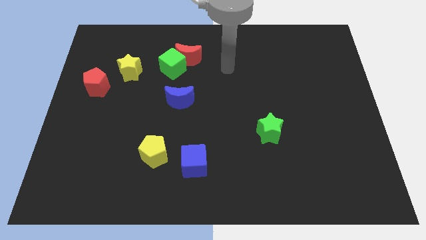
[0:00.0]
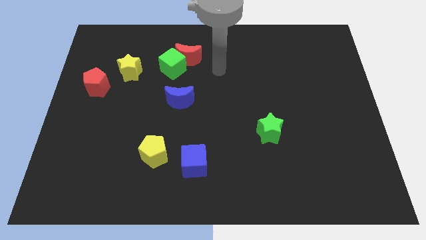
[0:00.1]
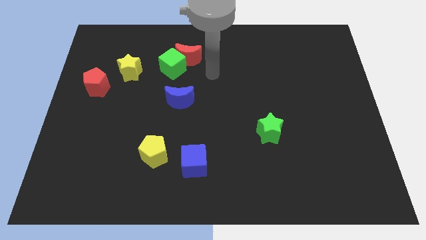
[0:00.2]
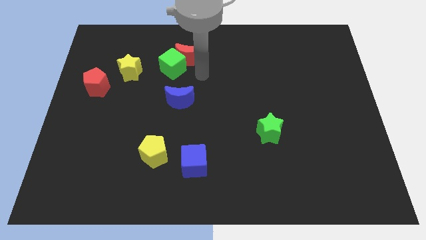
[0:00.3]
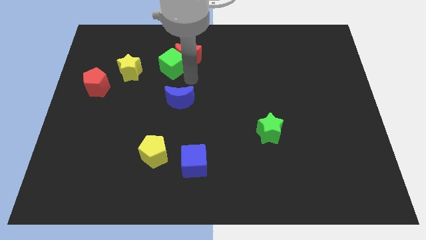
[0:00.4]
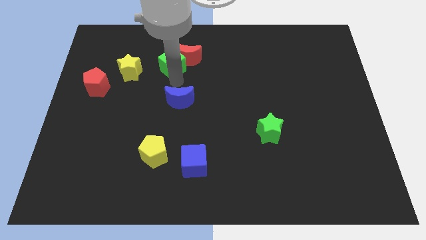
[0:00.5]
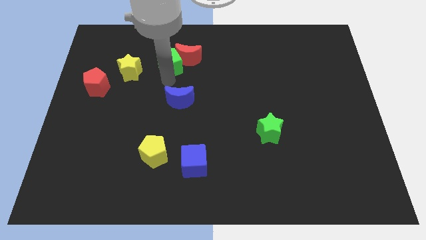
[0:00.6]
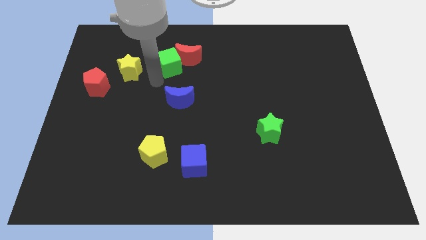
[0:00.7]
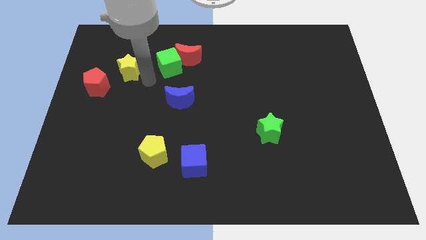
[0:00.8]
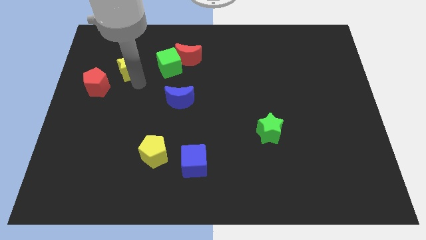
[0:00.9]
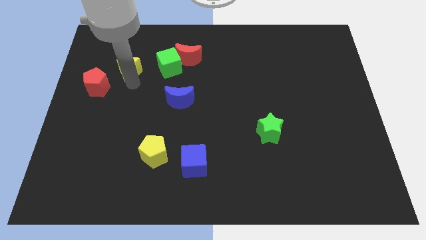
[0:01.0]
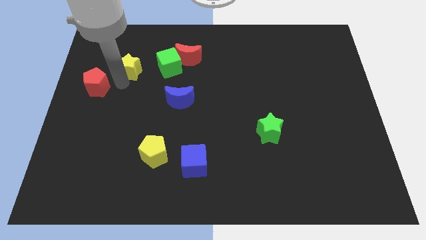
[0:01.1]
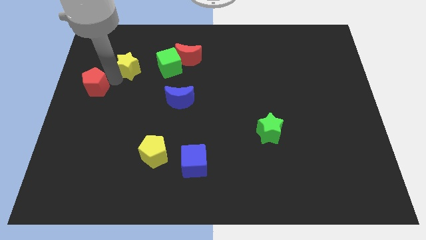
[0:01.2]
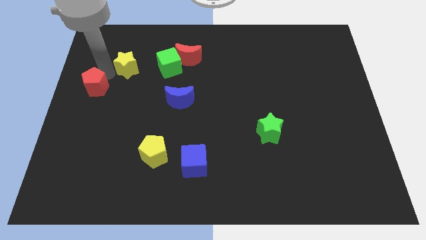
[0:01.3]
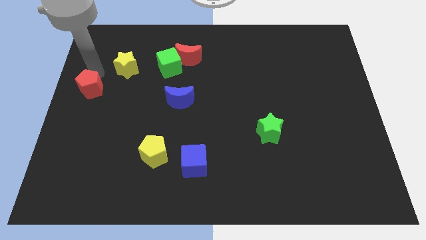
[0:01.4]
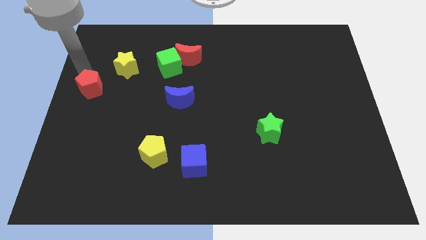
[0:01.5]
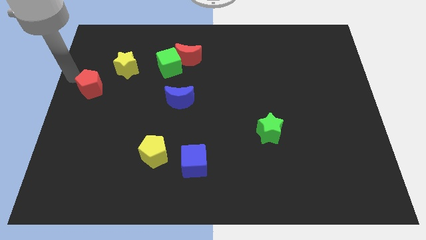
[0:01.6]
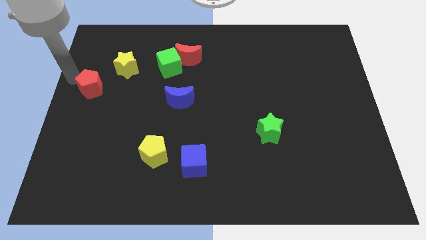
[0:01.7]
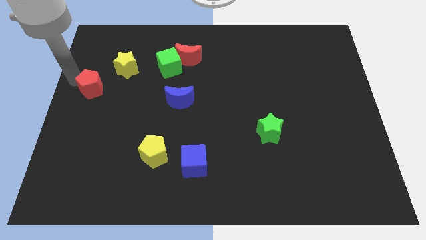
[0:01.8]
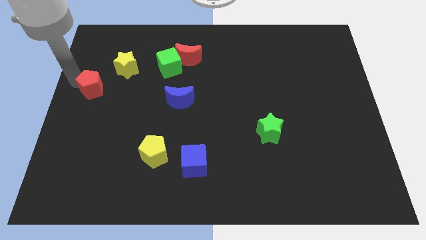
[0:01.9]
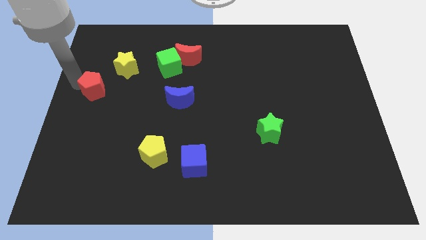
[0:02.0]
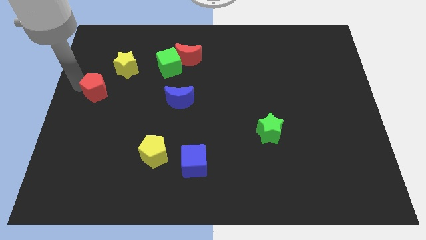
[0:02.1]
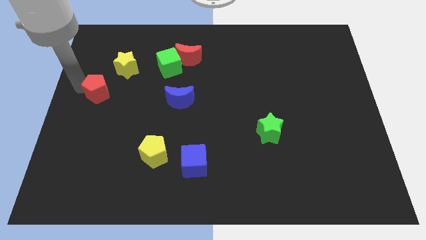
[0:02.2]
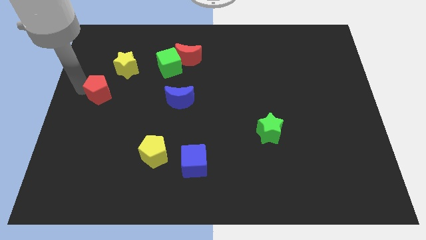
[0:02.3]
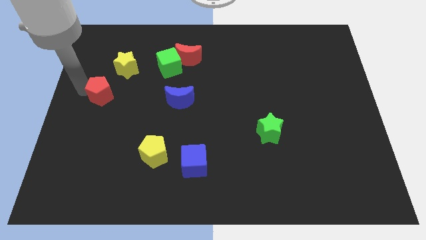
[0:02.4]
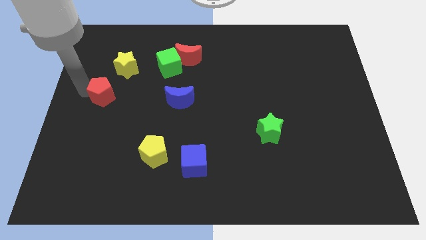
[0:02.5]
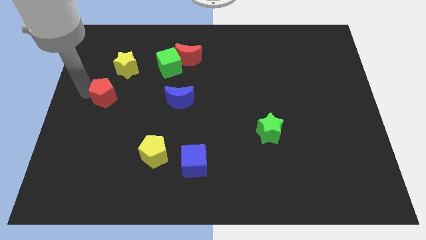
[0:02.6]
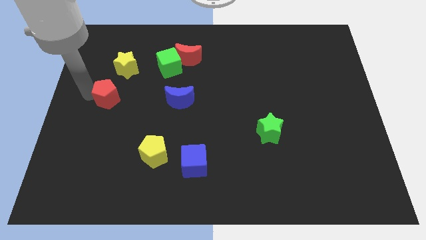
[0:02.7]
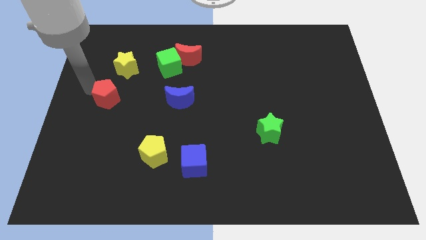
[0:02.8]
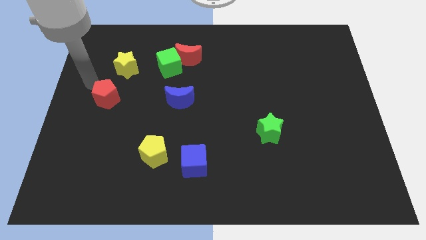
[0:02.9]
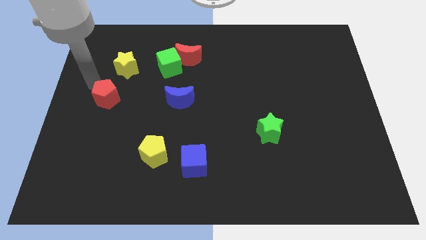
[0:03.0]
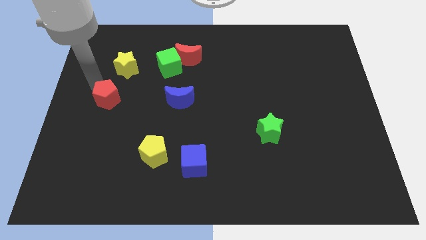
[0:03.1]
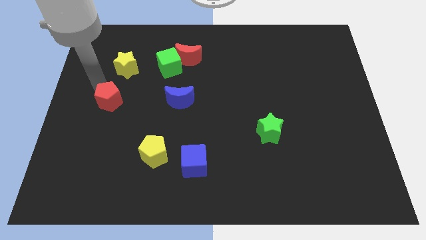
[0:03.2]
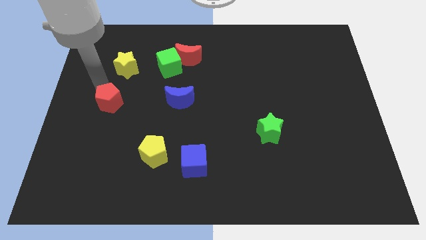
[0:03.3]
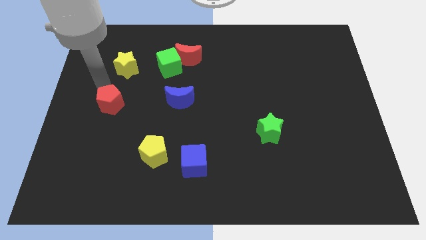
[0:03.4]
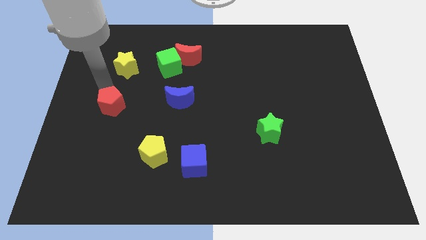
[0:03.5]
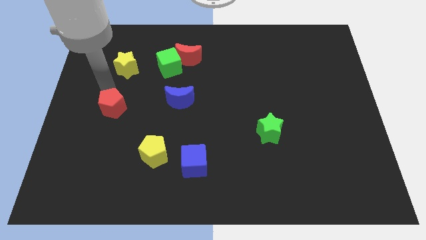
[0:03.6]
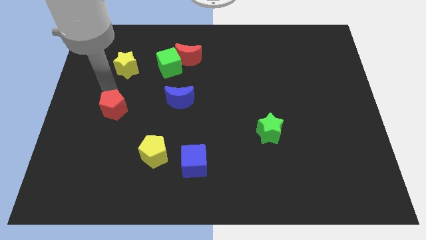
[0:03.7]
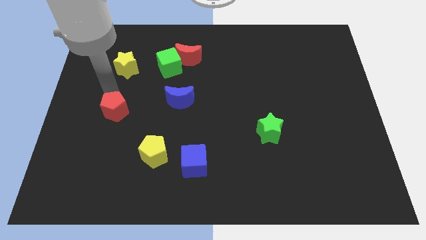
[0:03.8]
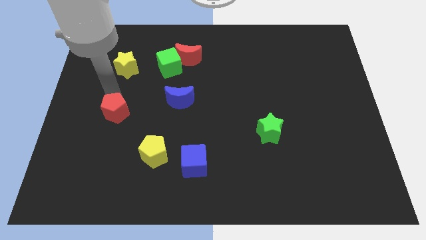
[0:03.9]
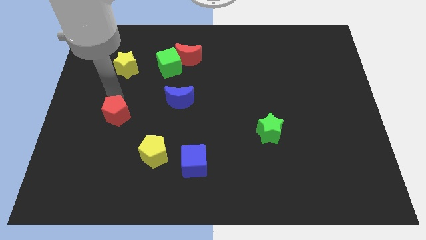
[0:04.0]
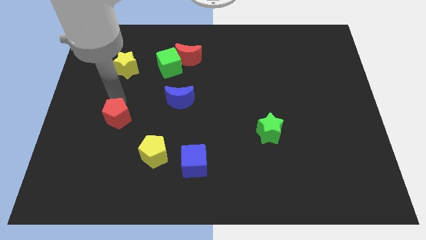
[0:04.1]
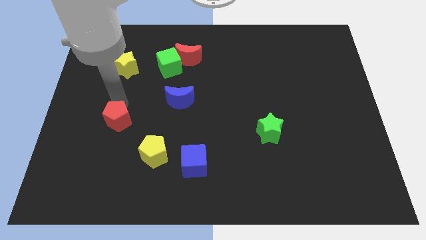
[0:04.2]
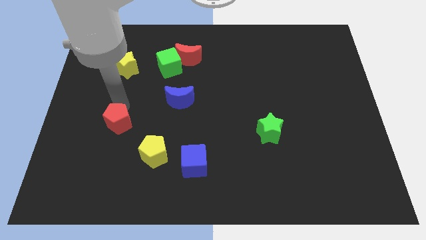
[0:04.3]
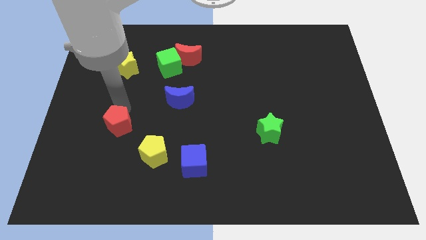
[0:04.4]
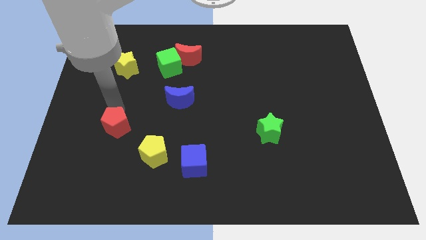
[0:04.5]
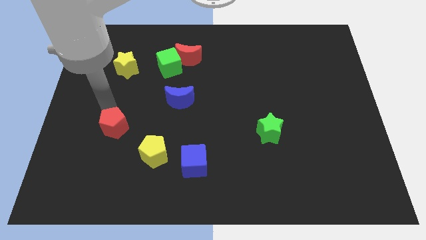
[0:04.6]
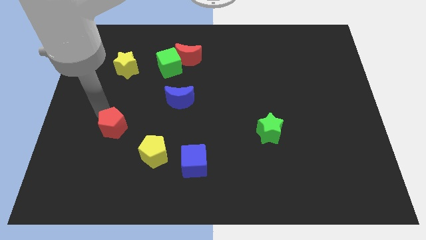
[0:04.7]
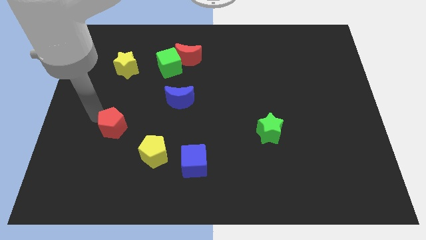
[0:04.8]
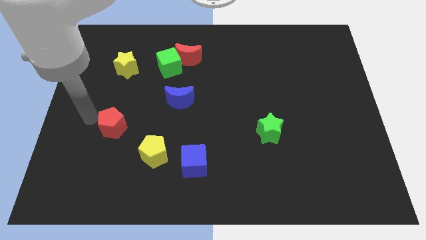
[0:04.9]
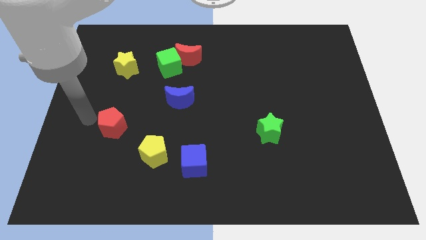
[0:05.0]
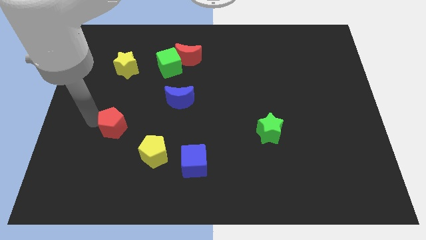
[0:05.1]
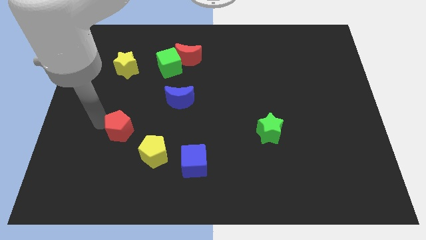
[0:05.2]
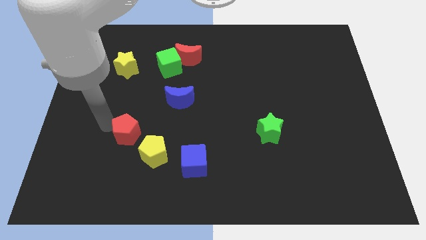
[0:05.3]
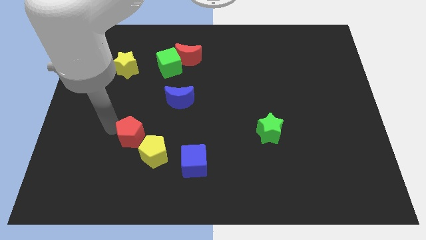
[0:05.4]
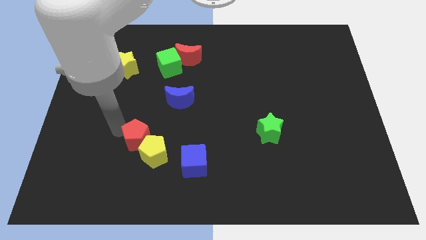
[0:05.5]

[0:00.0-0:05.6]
slide the red pentagon close to the yellow pentagon

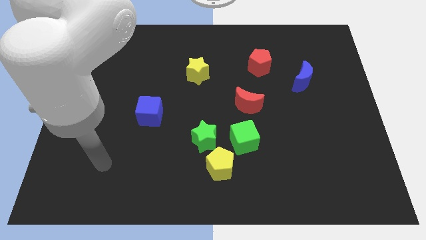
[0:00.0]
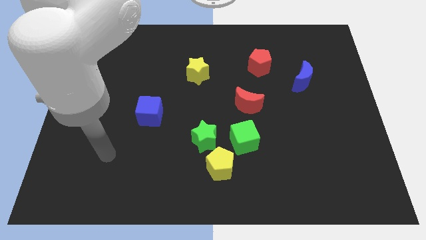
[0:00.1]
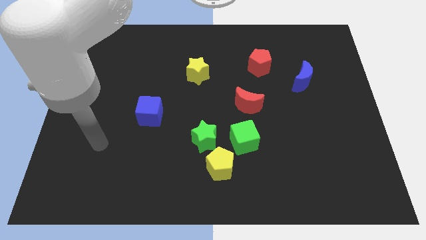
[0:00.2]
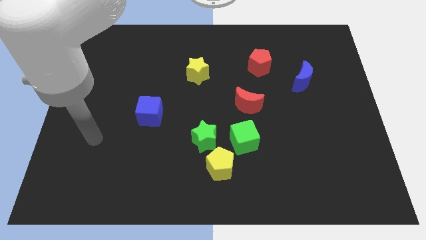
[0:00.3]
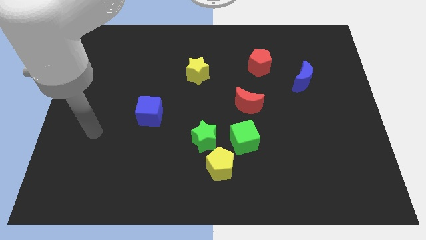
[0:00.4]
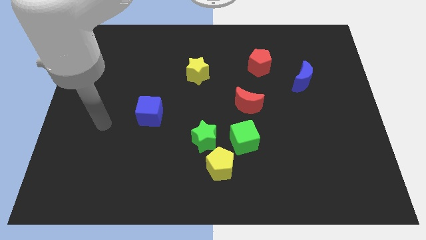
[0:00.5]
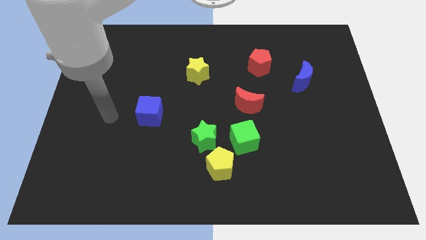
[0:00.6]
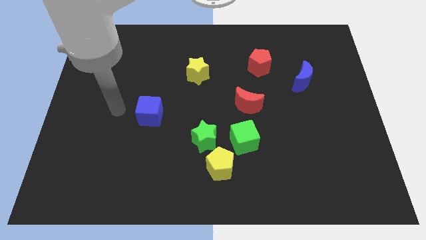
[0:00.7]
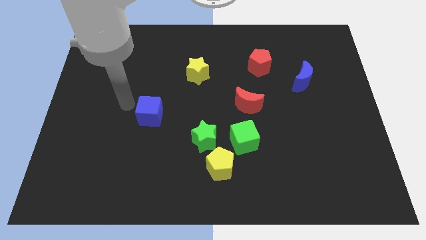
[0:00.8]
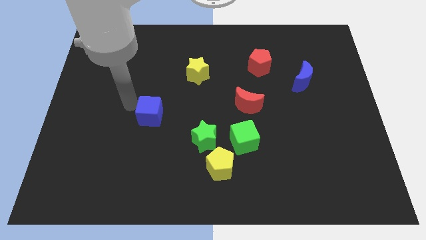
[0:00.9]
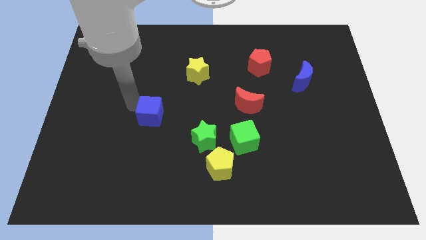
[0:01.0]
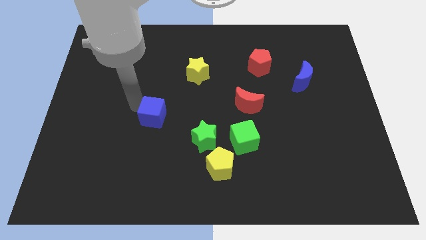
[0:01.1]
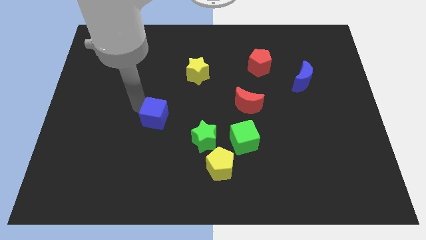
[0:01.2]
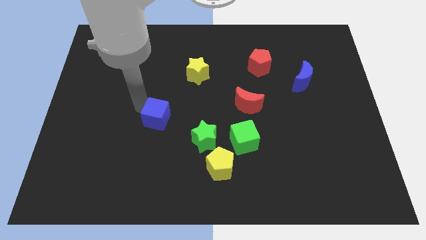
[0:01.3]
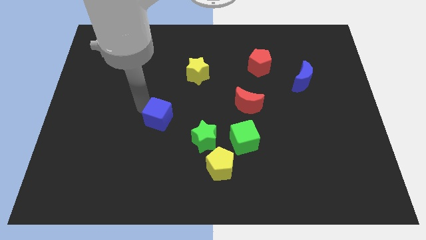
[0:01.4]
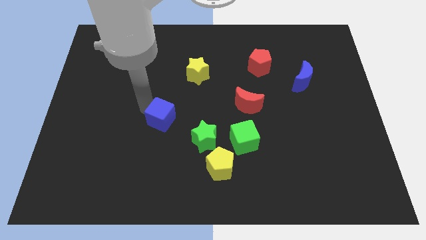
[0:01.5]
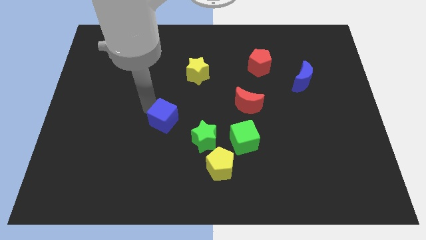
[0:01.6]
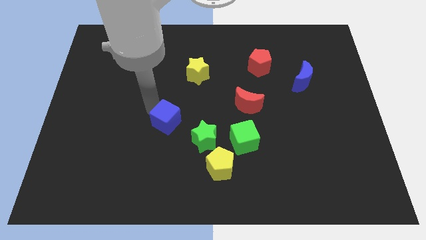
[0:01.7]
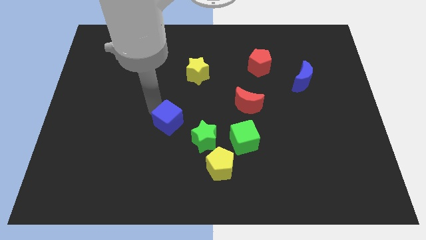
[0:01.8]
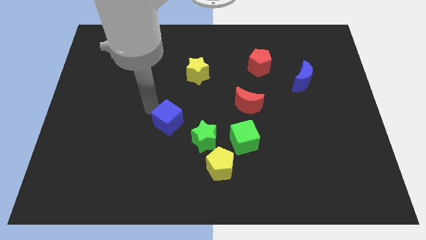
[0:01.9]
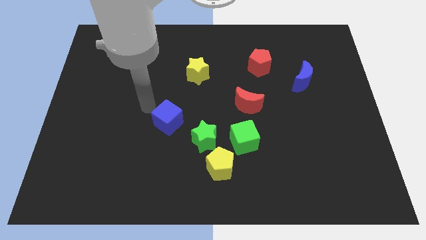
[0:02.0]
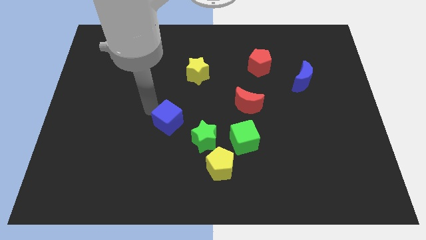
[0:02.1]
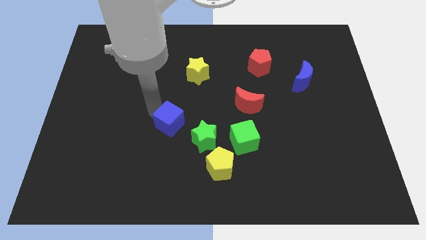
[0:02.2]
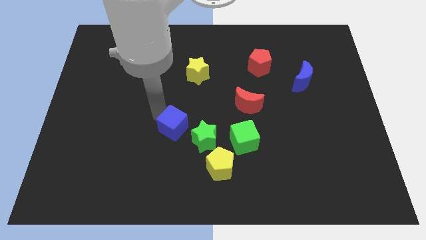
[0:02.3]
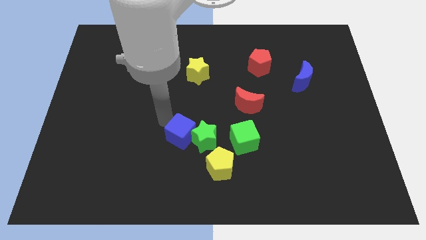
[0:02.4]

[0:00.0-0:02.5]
move the blue cube close to the green star
